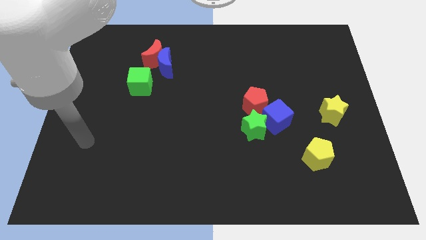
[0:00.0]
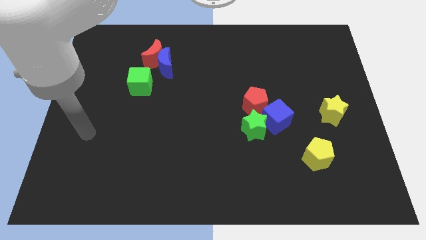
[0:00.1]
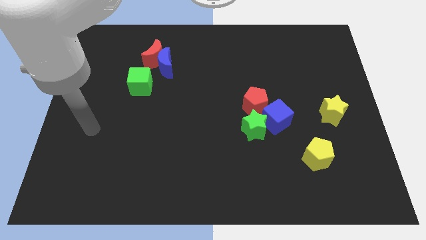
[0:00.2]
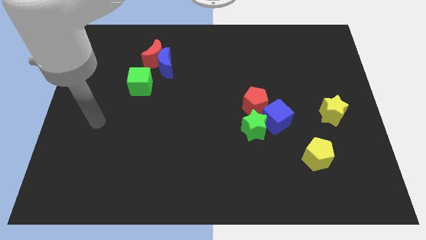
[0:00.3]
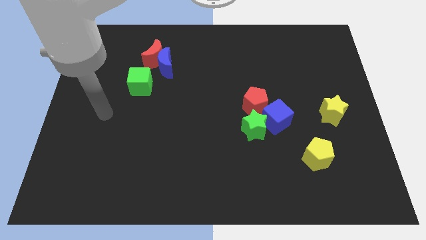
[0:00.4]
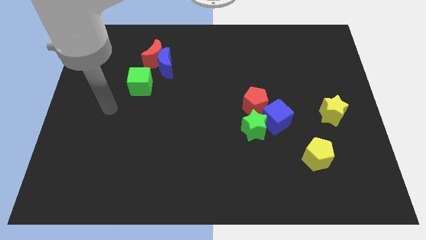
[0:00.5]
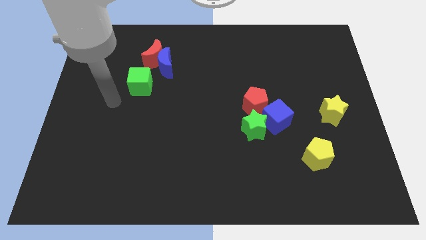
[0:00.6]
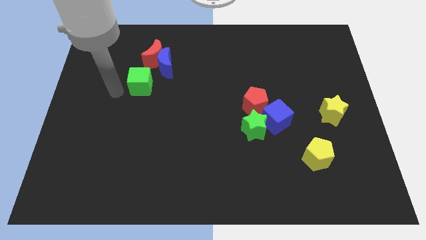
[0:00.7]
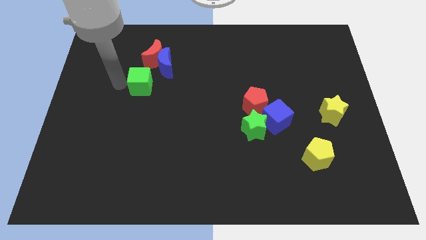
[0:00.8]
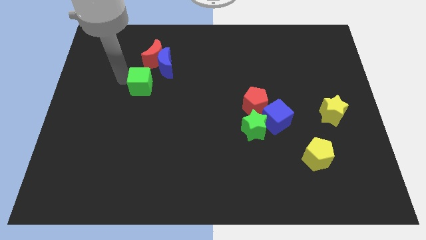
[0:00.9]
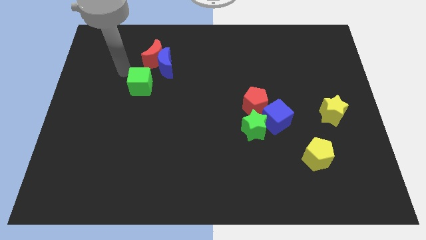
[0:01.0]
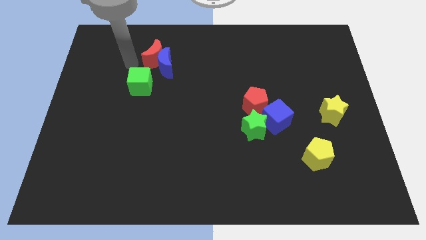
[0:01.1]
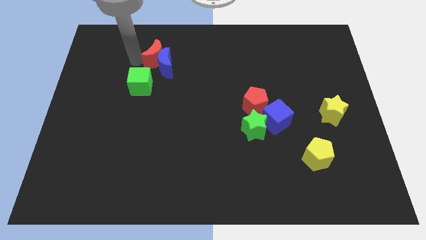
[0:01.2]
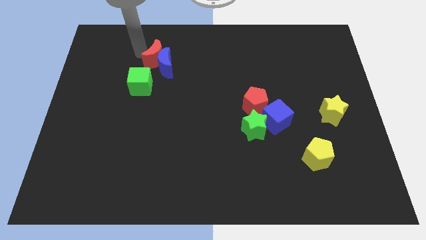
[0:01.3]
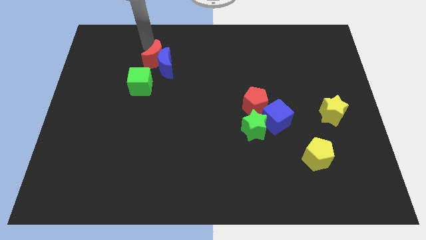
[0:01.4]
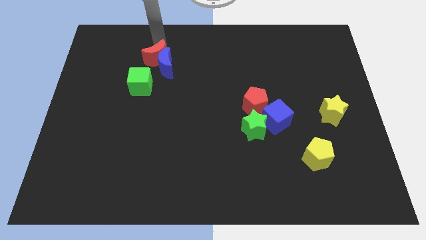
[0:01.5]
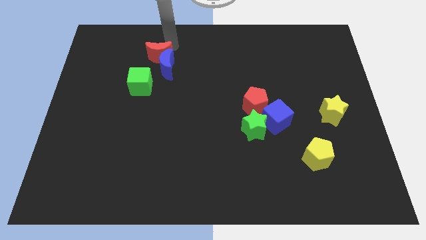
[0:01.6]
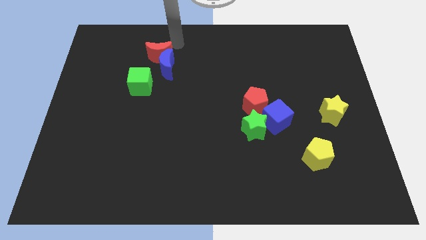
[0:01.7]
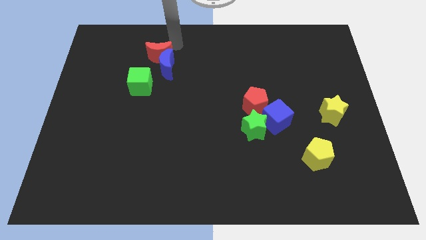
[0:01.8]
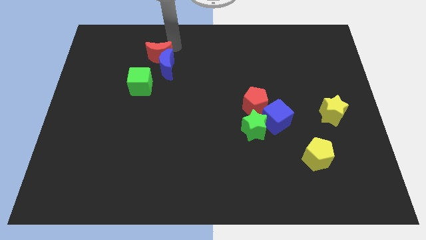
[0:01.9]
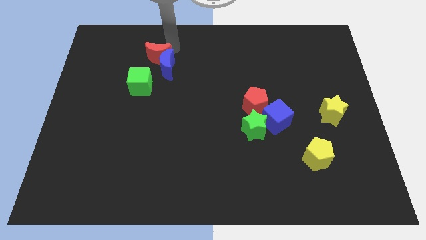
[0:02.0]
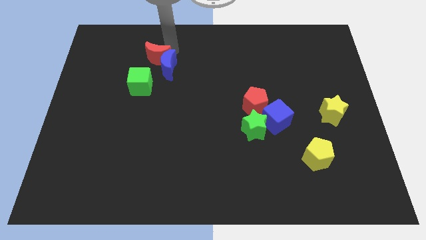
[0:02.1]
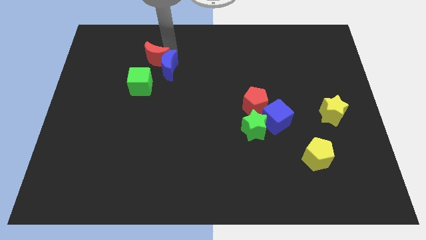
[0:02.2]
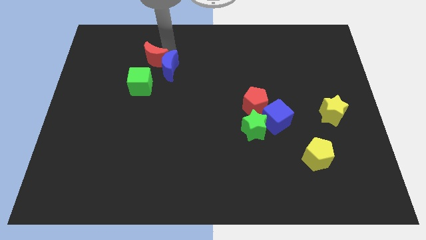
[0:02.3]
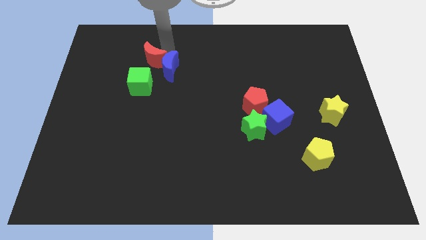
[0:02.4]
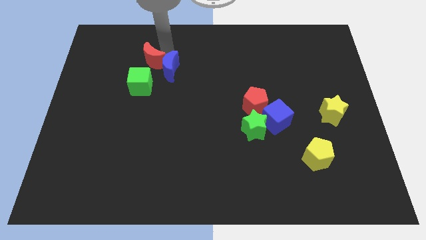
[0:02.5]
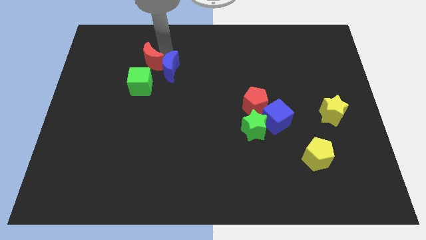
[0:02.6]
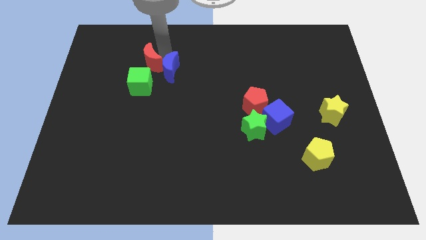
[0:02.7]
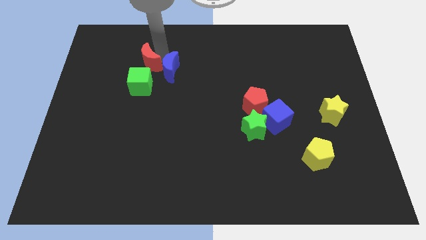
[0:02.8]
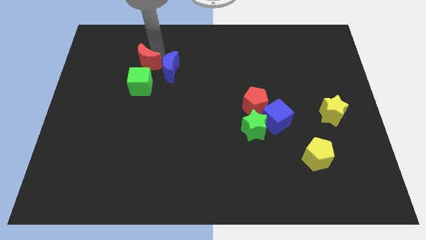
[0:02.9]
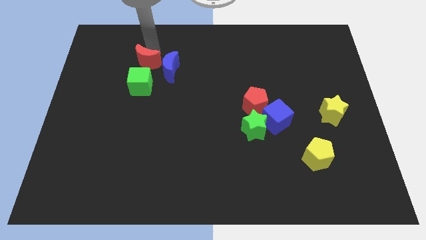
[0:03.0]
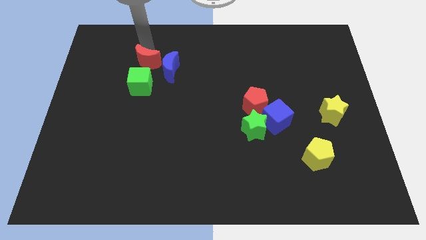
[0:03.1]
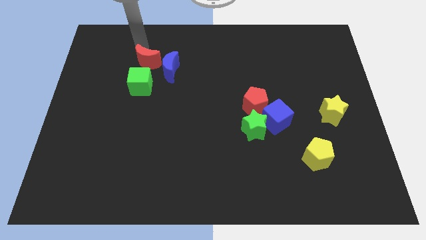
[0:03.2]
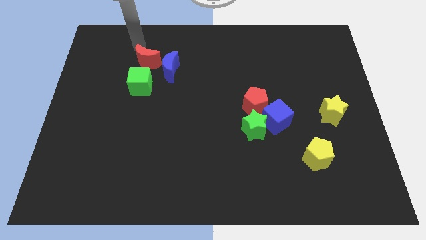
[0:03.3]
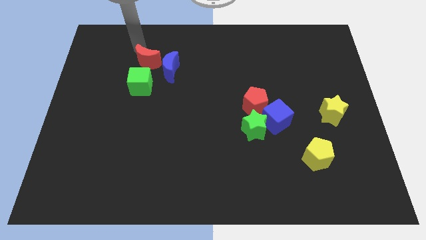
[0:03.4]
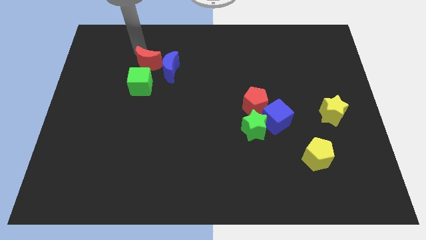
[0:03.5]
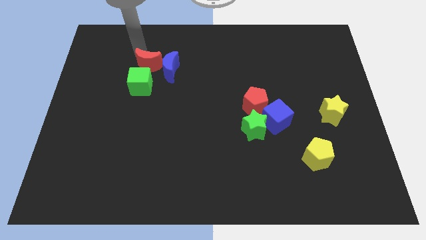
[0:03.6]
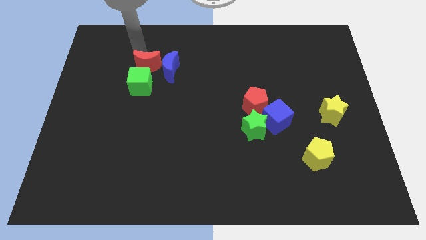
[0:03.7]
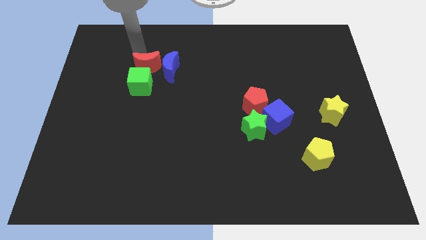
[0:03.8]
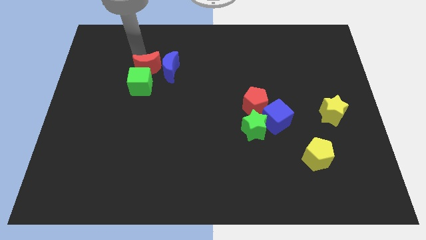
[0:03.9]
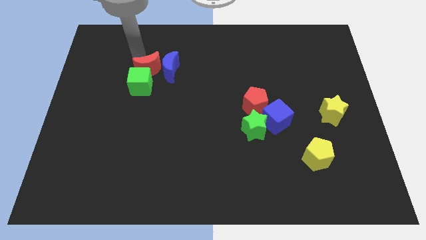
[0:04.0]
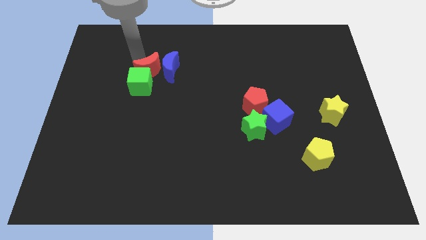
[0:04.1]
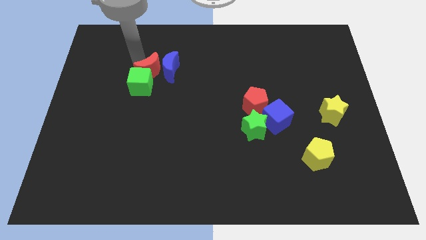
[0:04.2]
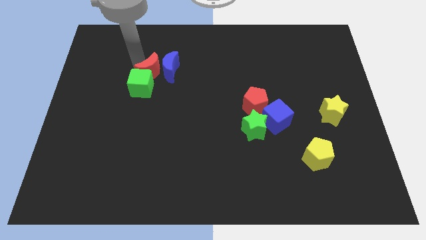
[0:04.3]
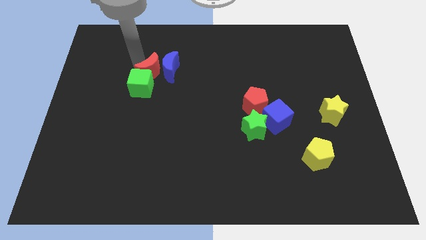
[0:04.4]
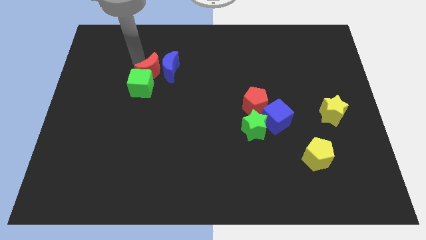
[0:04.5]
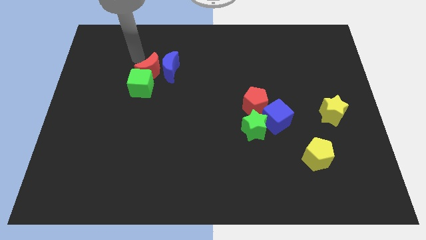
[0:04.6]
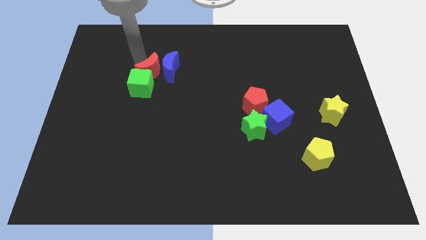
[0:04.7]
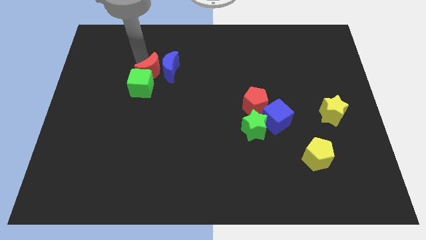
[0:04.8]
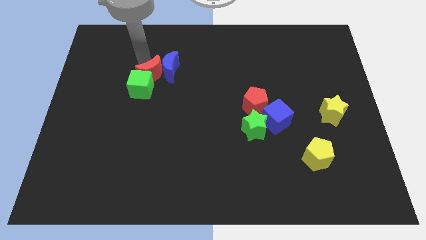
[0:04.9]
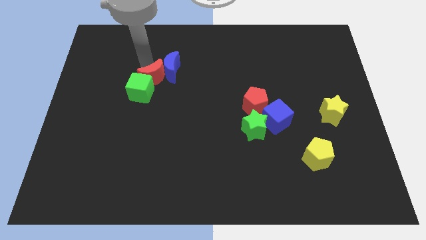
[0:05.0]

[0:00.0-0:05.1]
move the red moon to the bottom of the blue moon

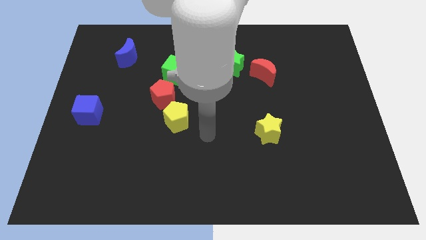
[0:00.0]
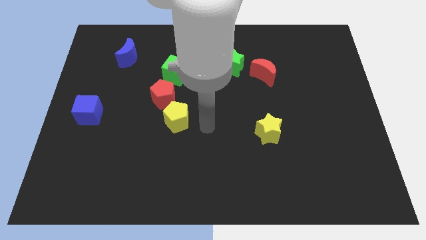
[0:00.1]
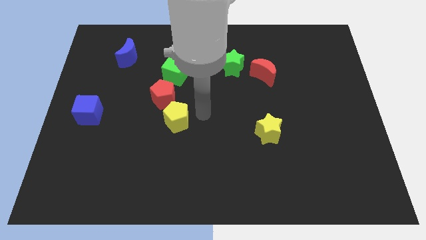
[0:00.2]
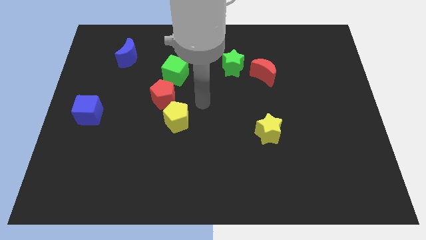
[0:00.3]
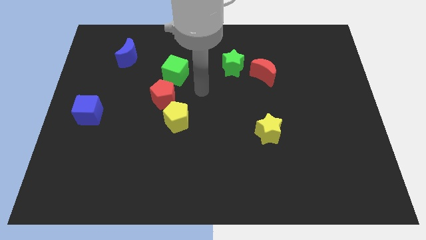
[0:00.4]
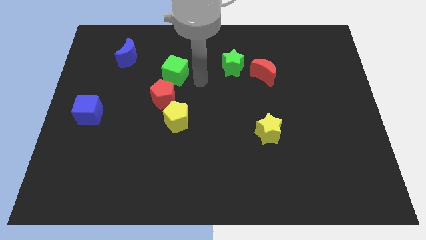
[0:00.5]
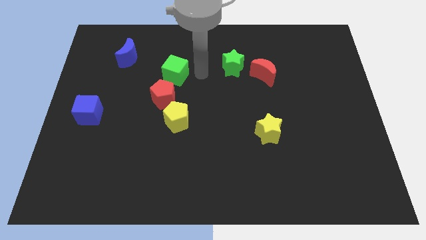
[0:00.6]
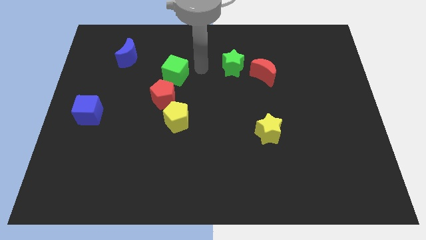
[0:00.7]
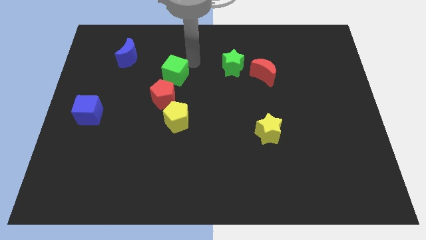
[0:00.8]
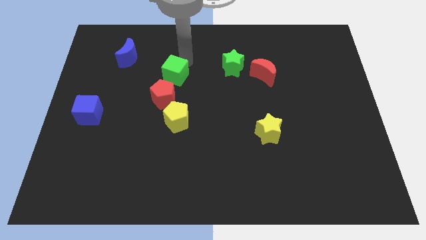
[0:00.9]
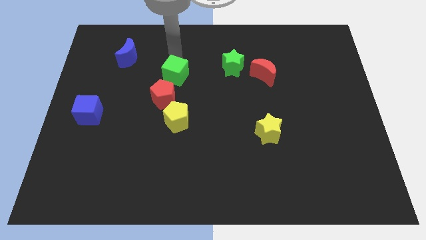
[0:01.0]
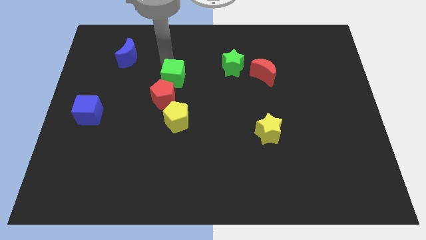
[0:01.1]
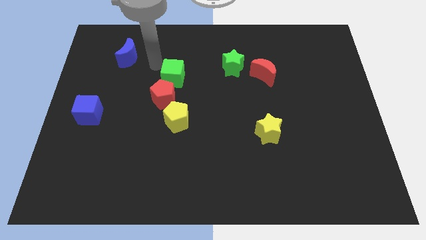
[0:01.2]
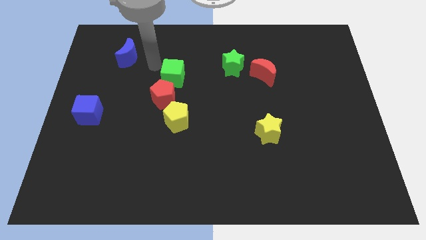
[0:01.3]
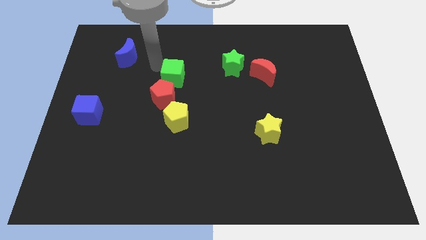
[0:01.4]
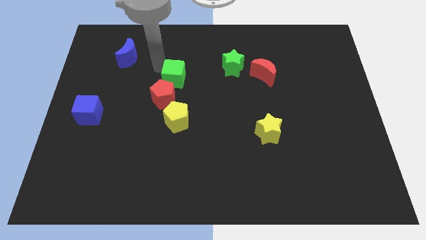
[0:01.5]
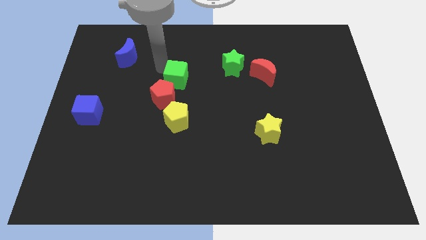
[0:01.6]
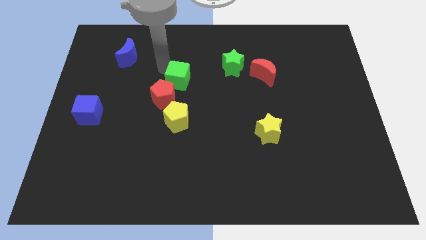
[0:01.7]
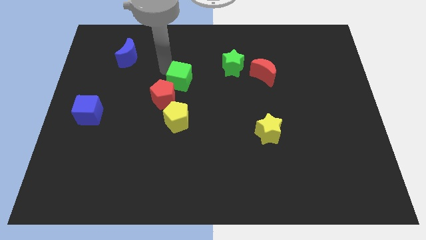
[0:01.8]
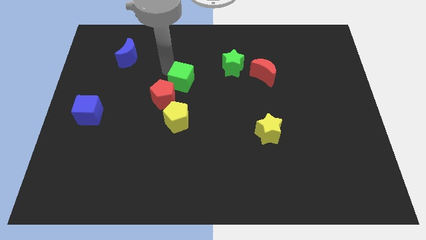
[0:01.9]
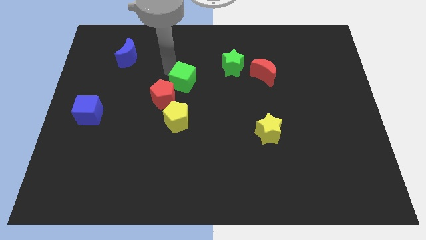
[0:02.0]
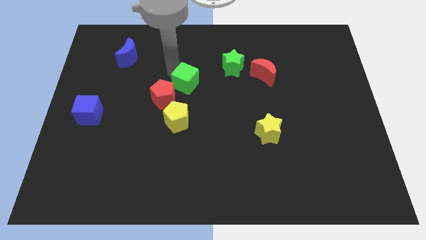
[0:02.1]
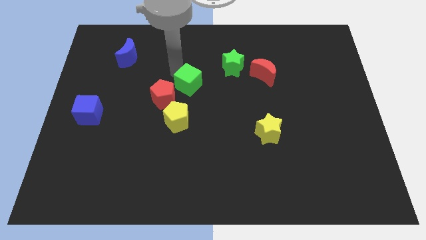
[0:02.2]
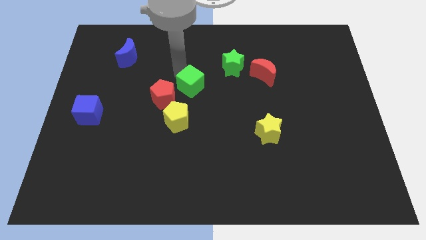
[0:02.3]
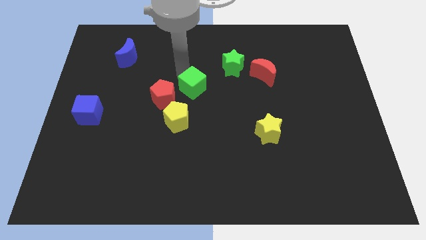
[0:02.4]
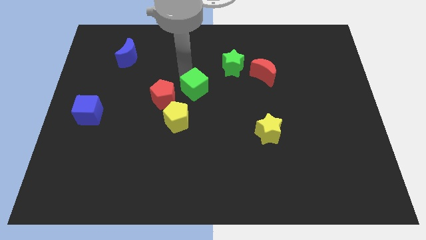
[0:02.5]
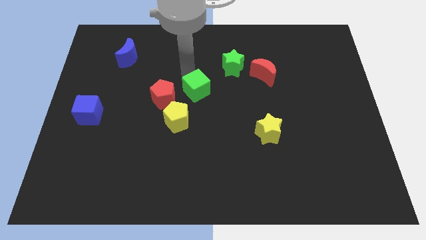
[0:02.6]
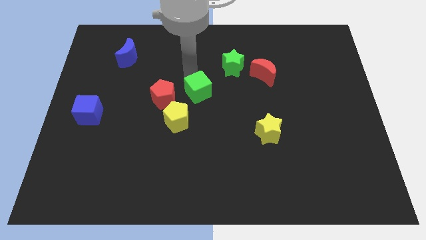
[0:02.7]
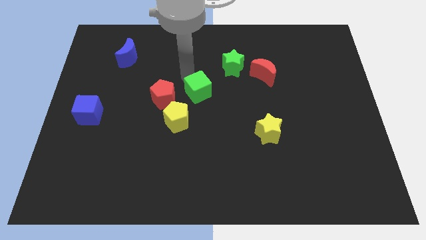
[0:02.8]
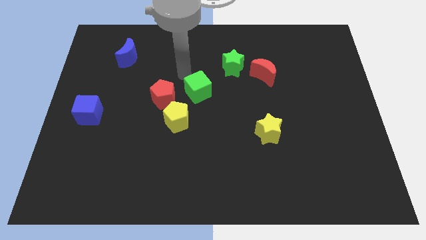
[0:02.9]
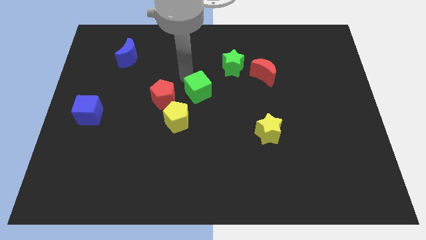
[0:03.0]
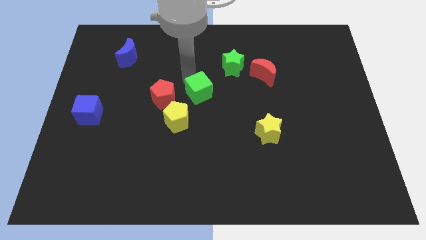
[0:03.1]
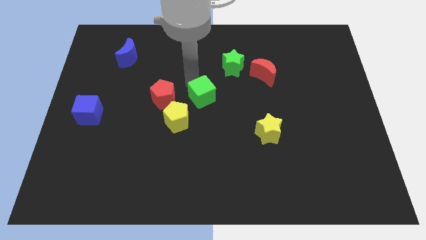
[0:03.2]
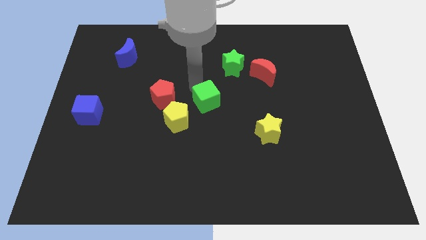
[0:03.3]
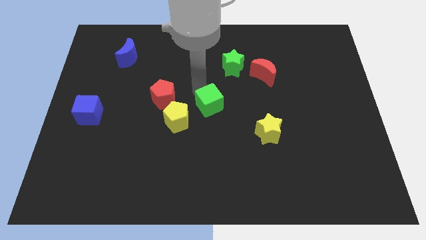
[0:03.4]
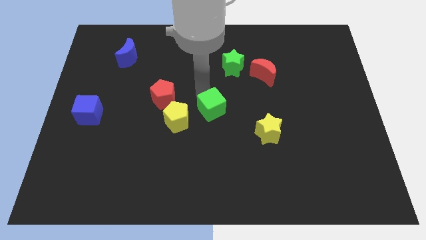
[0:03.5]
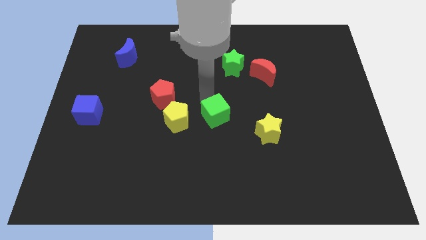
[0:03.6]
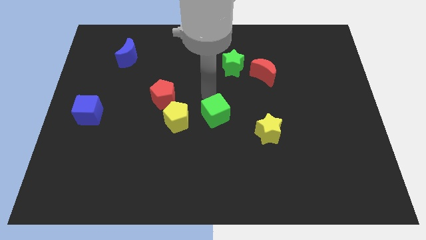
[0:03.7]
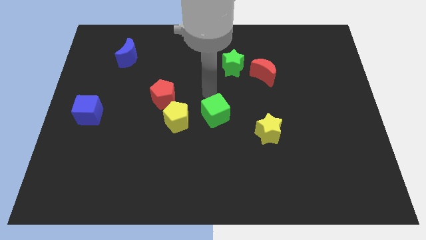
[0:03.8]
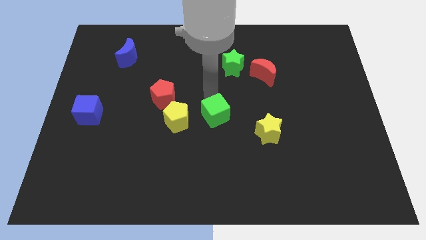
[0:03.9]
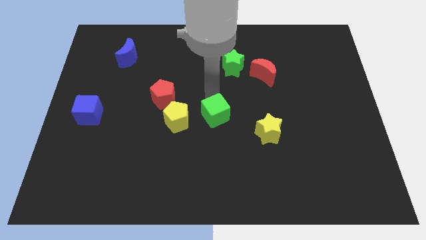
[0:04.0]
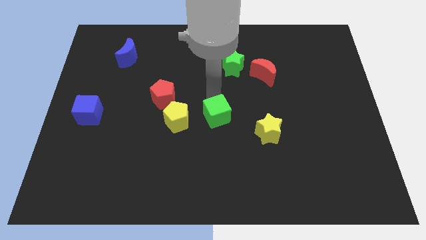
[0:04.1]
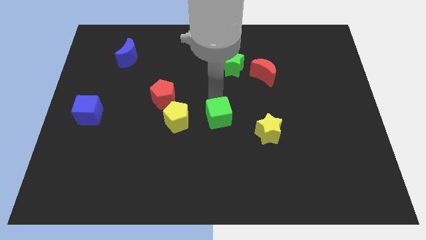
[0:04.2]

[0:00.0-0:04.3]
put the green cube to the left side of the yellow star
